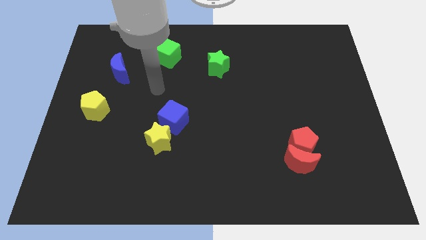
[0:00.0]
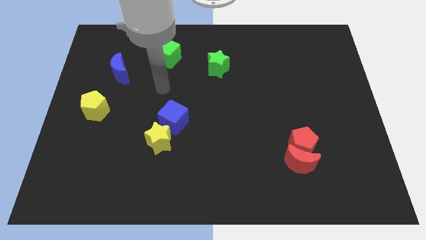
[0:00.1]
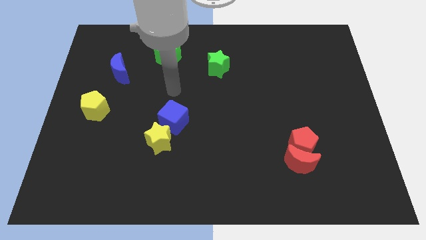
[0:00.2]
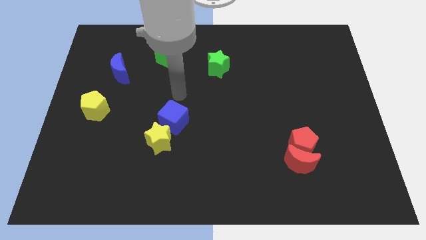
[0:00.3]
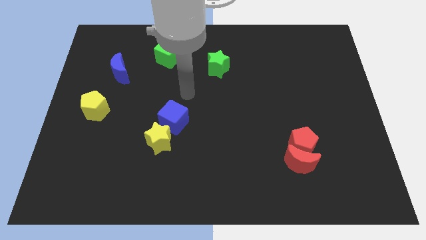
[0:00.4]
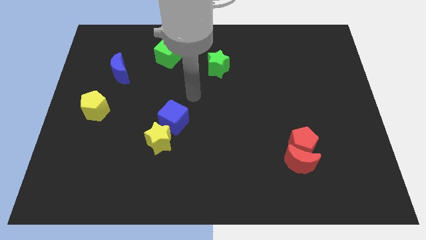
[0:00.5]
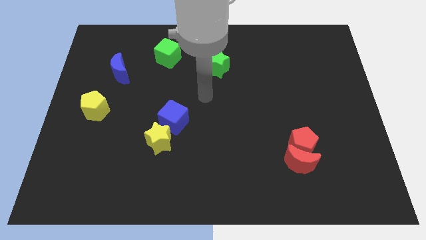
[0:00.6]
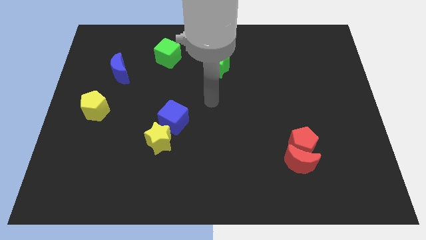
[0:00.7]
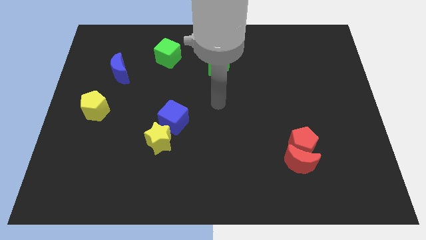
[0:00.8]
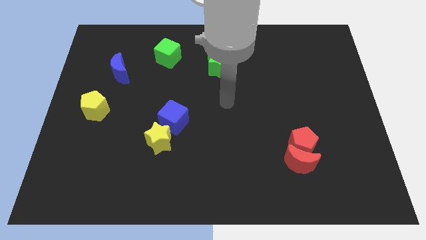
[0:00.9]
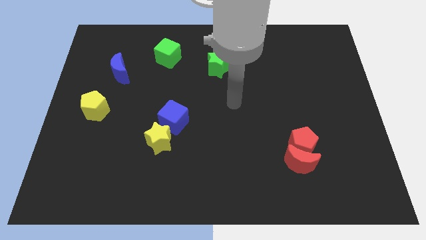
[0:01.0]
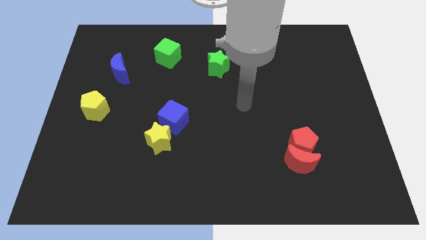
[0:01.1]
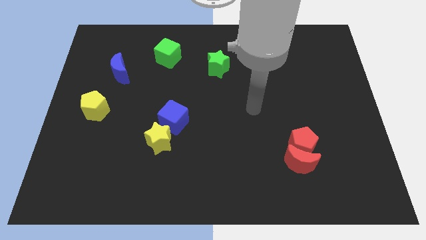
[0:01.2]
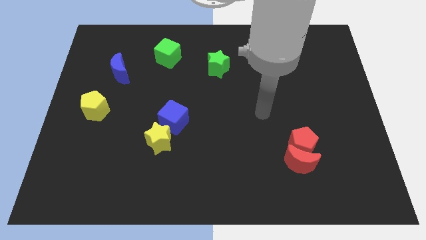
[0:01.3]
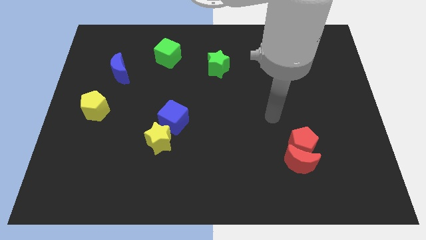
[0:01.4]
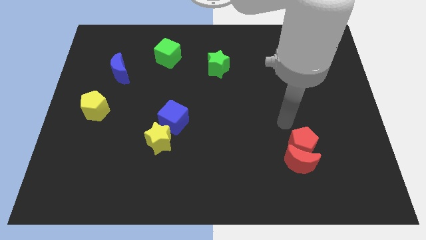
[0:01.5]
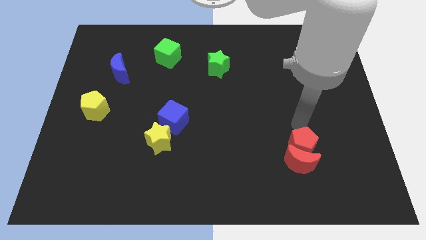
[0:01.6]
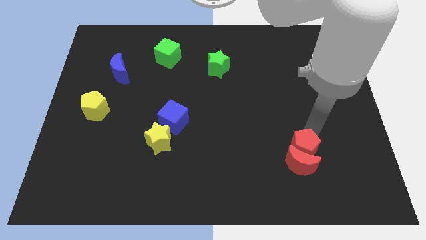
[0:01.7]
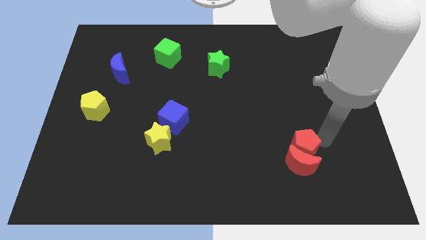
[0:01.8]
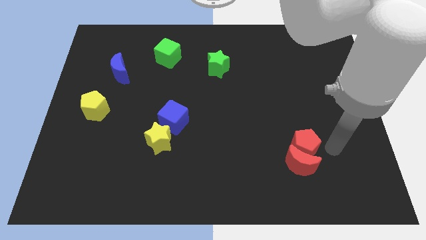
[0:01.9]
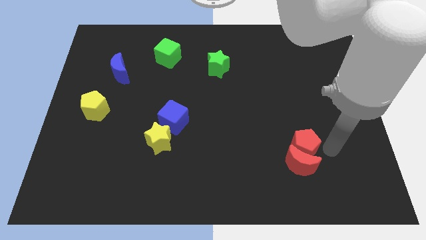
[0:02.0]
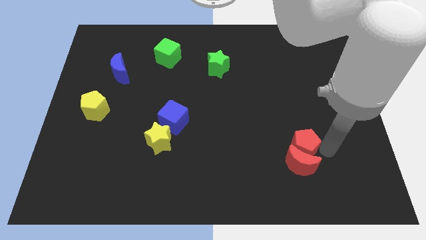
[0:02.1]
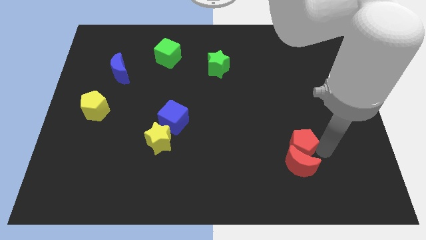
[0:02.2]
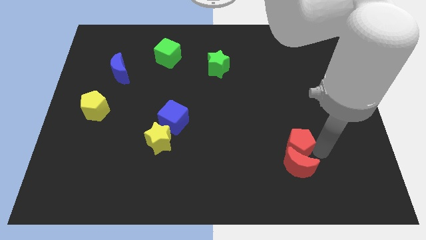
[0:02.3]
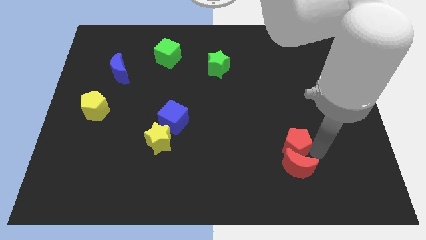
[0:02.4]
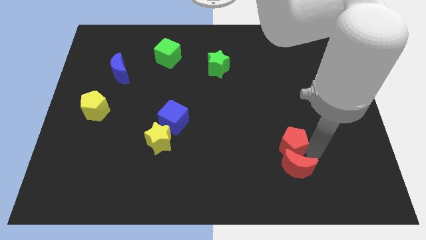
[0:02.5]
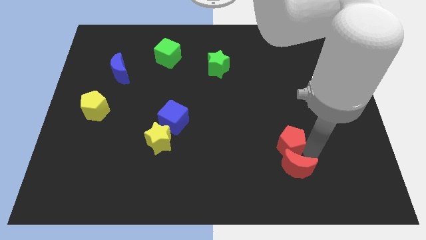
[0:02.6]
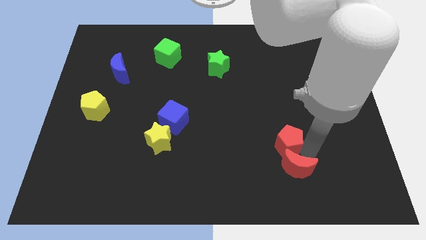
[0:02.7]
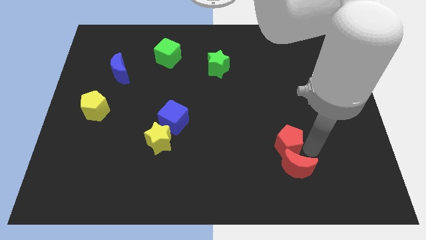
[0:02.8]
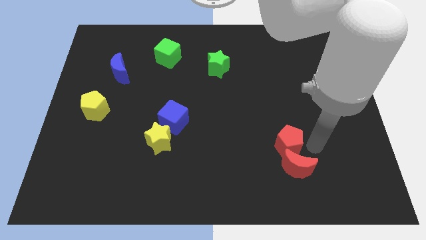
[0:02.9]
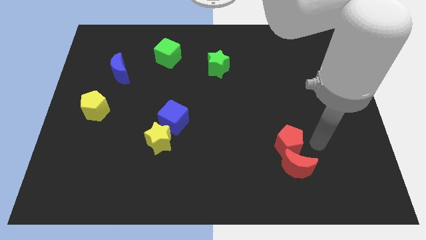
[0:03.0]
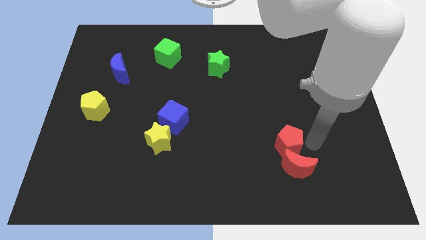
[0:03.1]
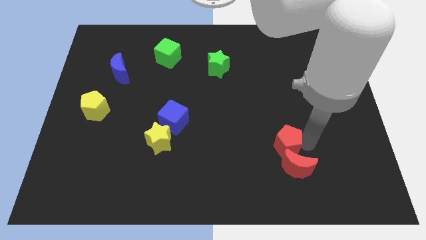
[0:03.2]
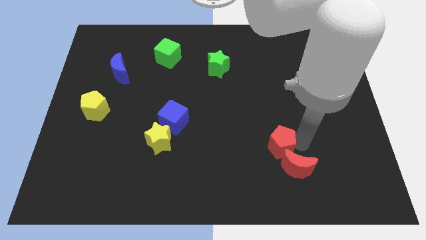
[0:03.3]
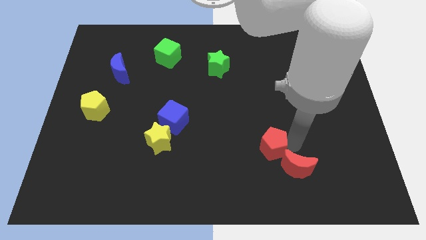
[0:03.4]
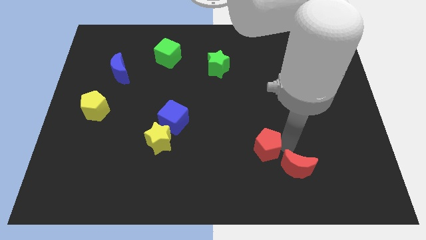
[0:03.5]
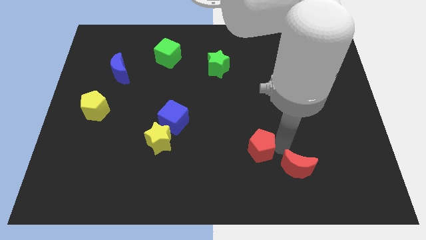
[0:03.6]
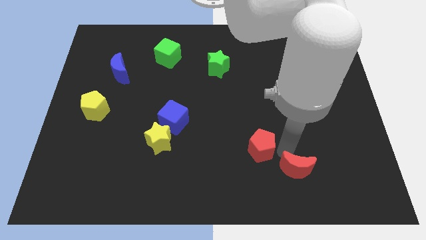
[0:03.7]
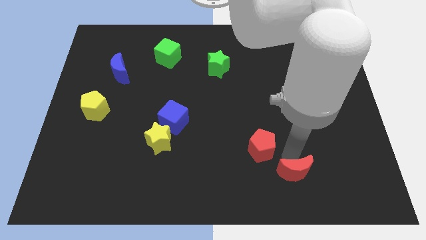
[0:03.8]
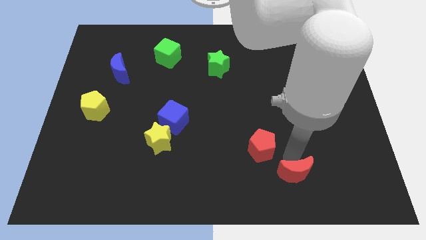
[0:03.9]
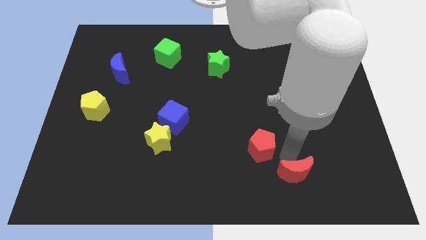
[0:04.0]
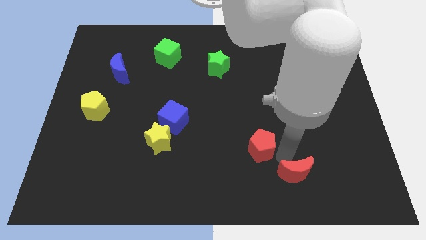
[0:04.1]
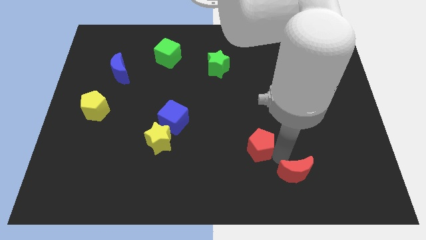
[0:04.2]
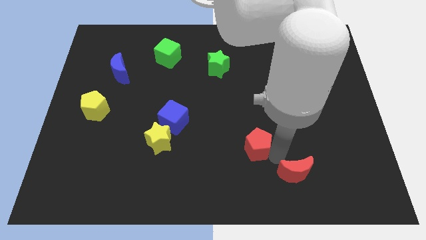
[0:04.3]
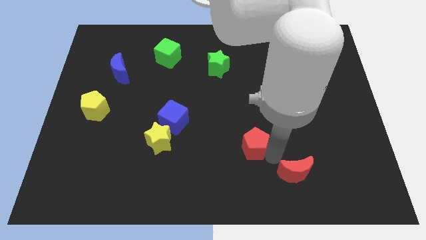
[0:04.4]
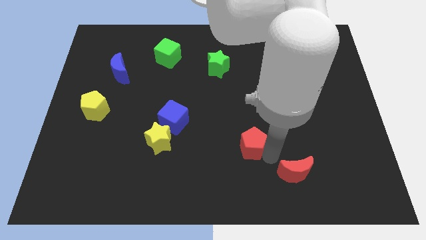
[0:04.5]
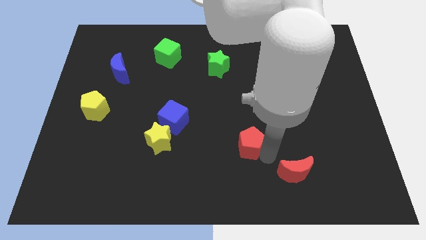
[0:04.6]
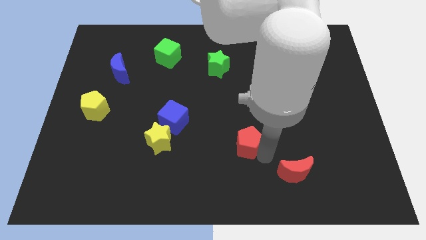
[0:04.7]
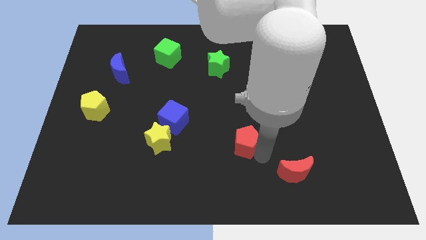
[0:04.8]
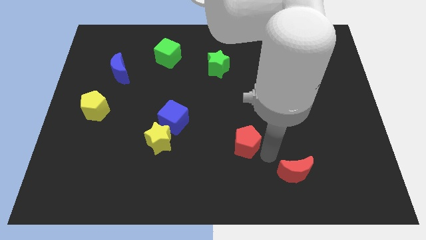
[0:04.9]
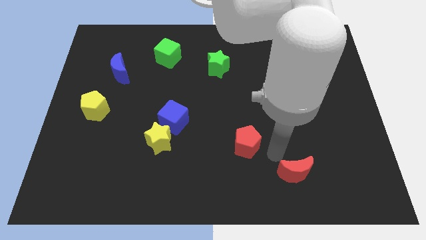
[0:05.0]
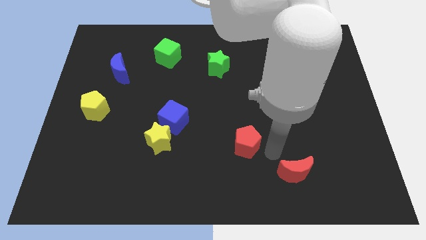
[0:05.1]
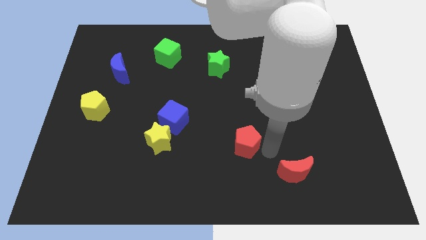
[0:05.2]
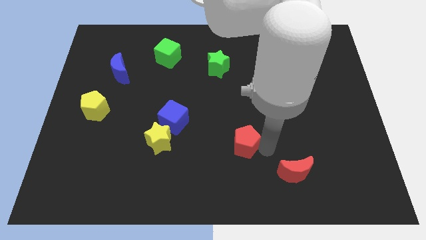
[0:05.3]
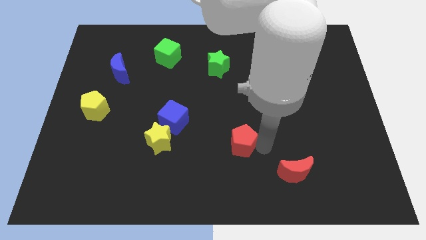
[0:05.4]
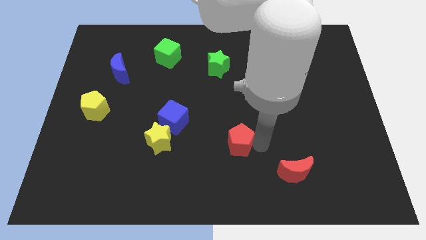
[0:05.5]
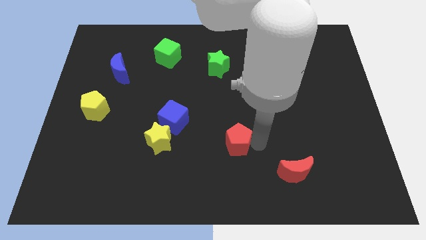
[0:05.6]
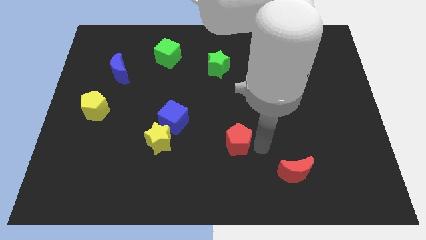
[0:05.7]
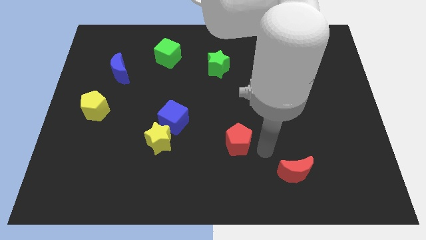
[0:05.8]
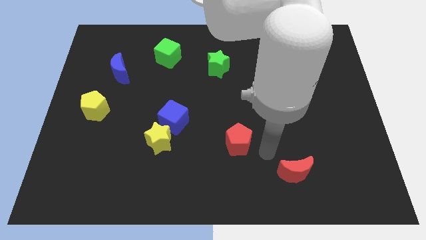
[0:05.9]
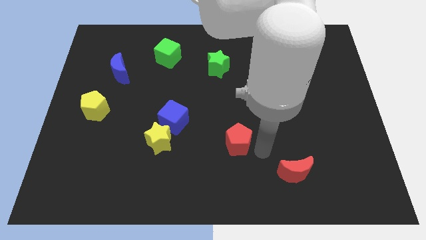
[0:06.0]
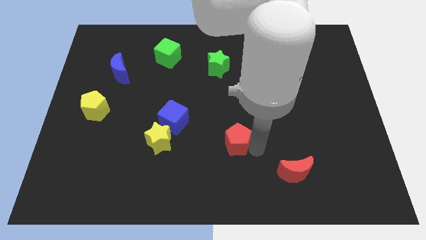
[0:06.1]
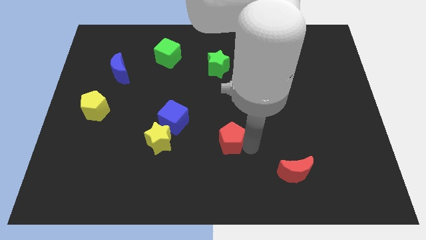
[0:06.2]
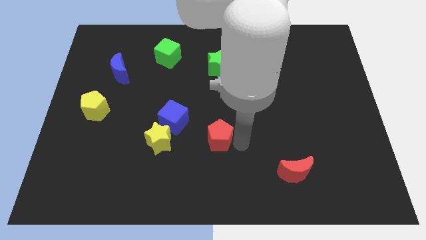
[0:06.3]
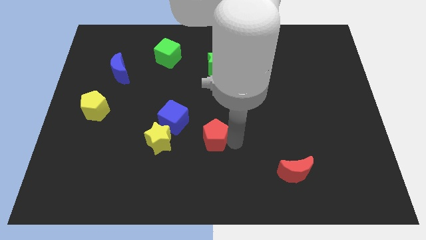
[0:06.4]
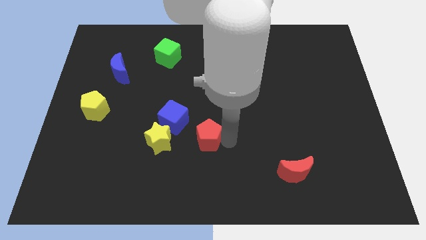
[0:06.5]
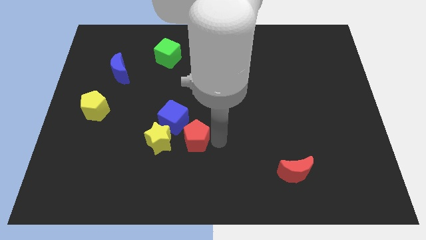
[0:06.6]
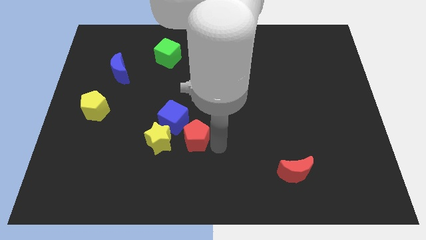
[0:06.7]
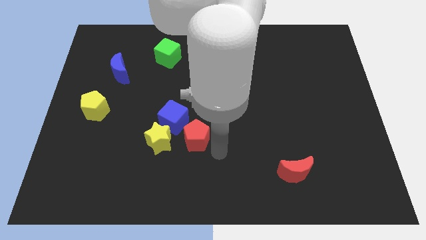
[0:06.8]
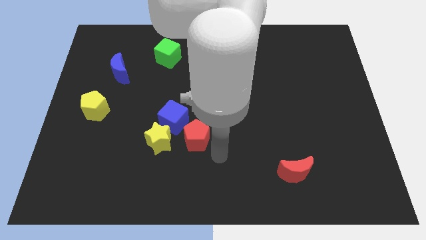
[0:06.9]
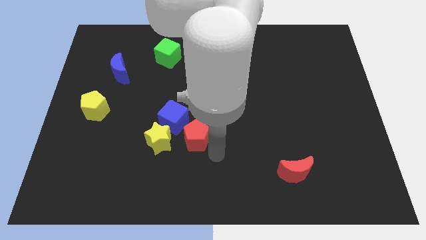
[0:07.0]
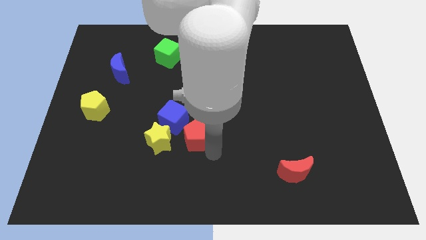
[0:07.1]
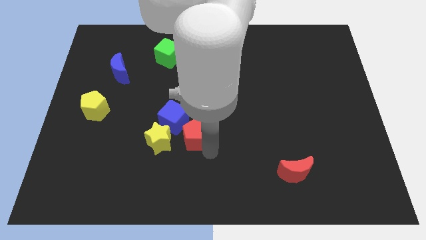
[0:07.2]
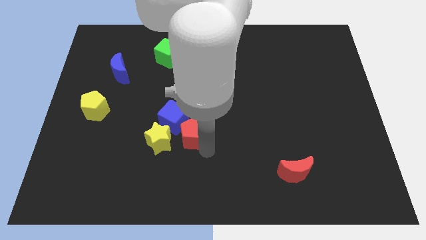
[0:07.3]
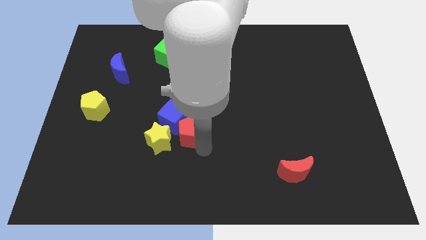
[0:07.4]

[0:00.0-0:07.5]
move the red pentagon close to the blue cube

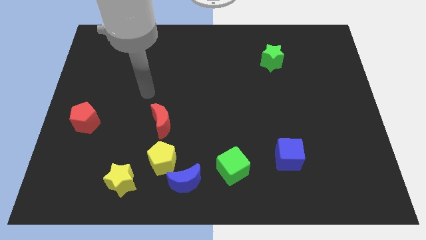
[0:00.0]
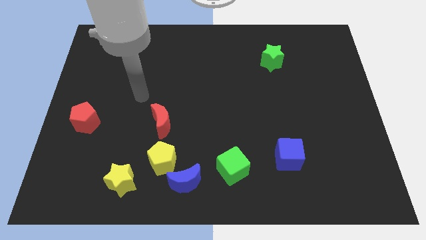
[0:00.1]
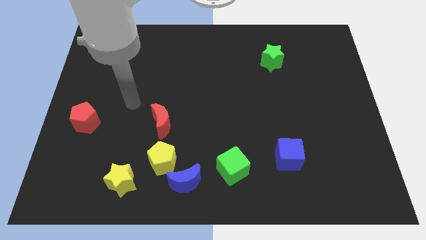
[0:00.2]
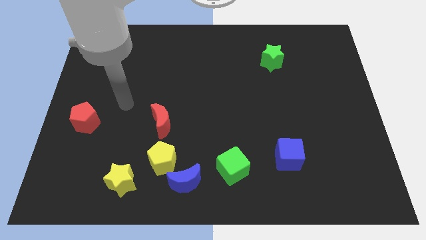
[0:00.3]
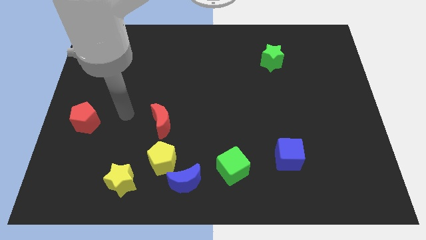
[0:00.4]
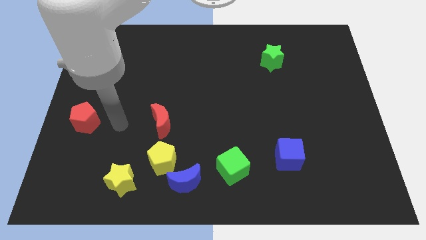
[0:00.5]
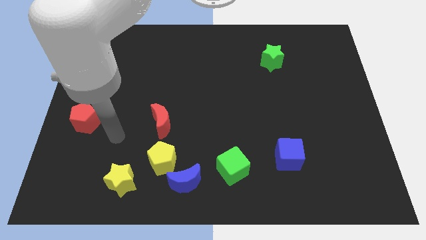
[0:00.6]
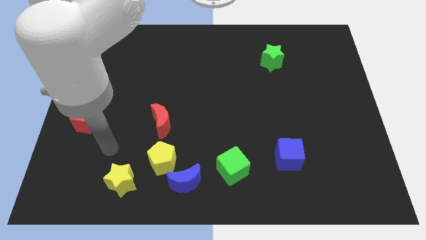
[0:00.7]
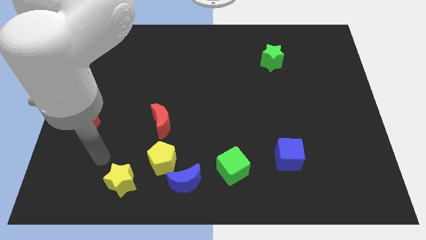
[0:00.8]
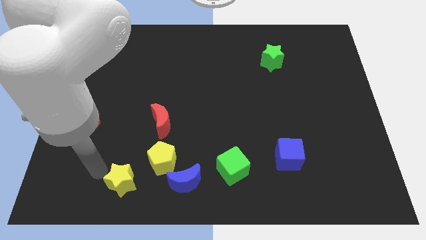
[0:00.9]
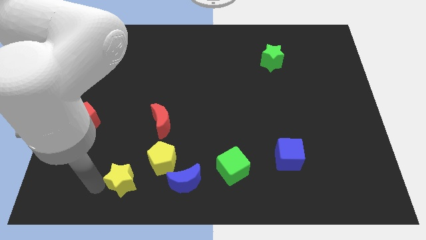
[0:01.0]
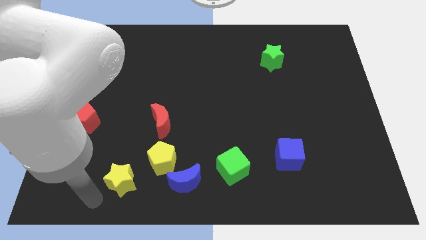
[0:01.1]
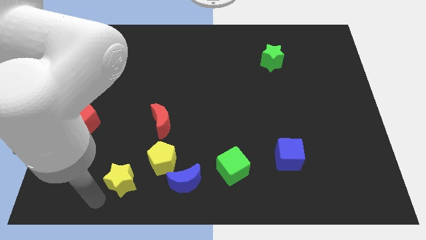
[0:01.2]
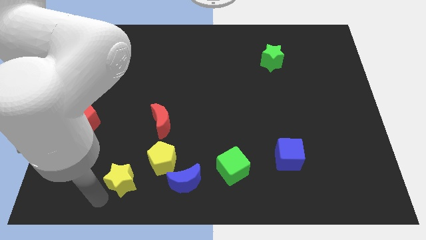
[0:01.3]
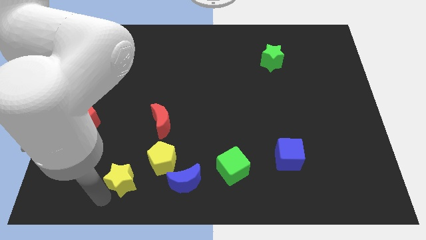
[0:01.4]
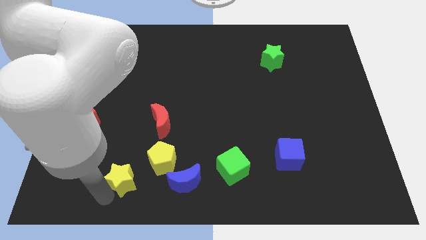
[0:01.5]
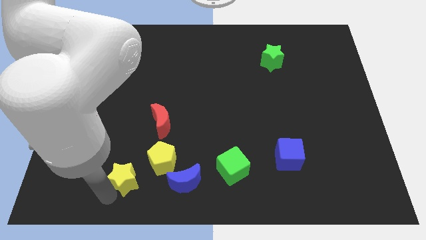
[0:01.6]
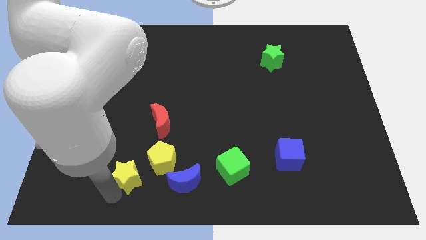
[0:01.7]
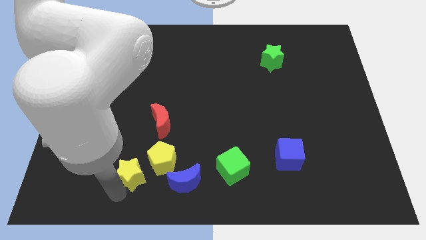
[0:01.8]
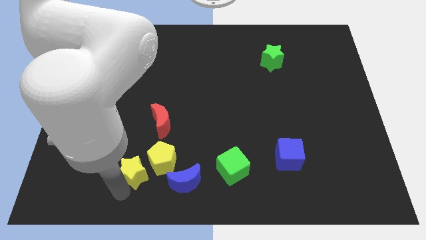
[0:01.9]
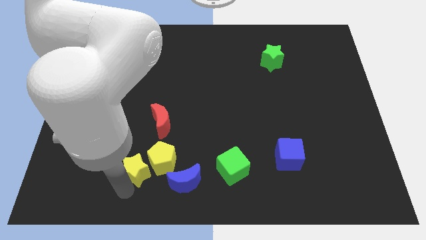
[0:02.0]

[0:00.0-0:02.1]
move the yellow star close to the yellow pentagon
